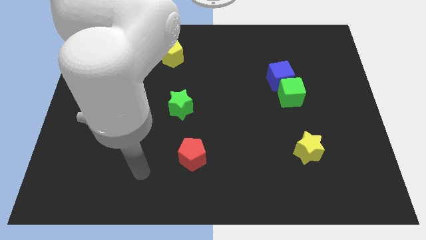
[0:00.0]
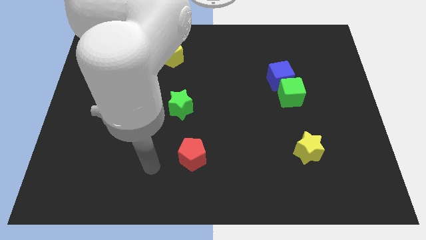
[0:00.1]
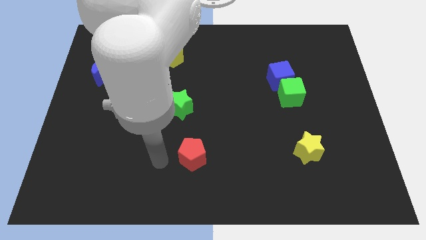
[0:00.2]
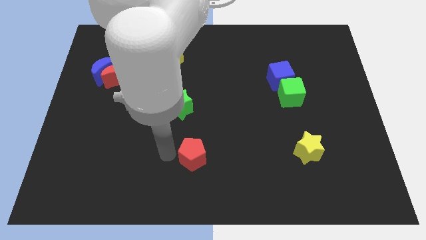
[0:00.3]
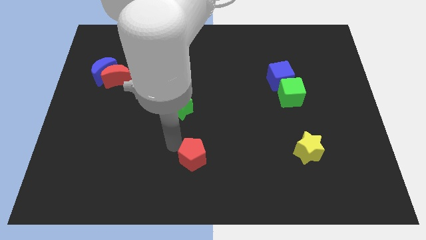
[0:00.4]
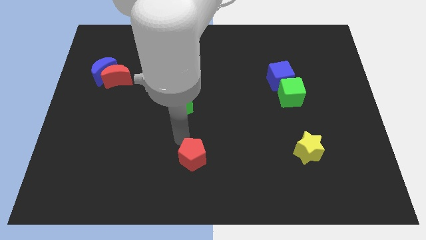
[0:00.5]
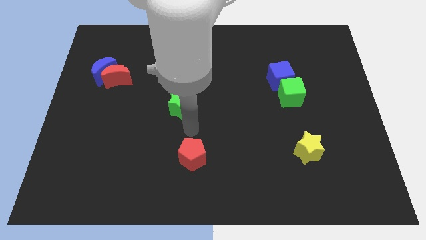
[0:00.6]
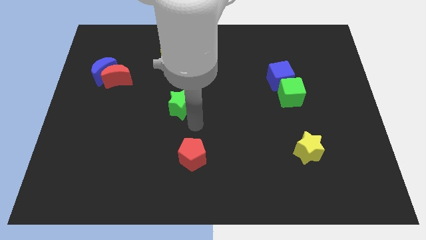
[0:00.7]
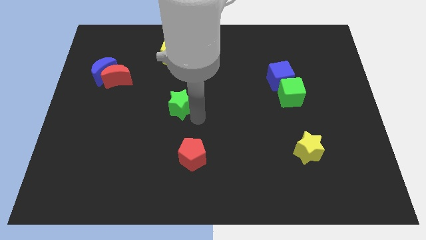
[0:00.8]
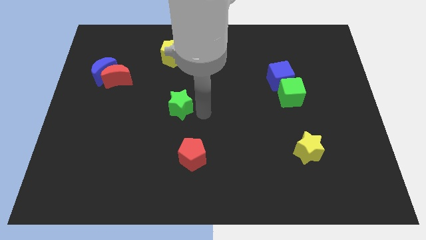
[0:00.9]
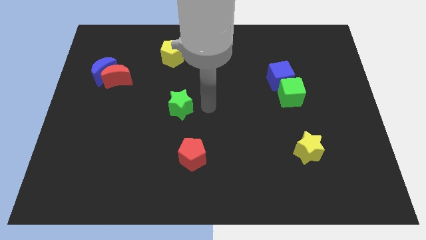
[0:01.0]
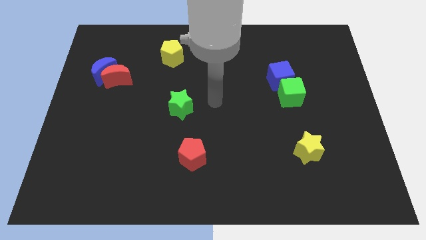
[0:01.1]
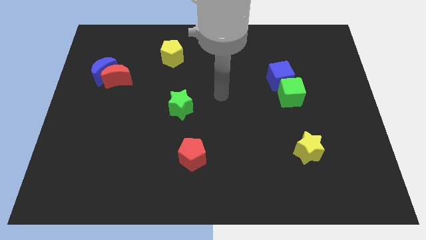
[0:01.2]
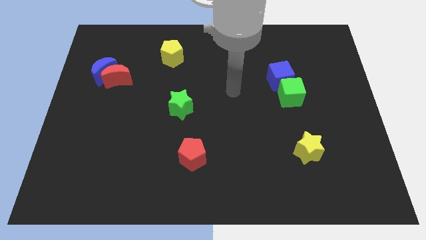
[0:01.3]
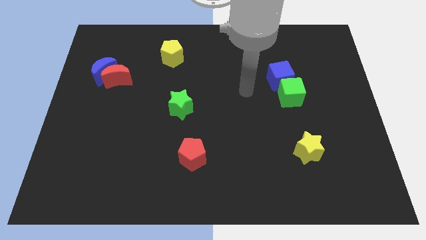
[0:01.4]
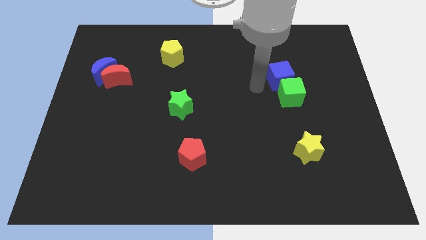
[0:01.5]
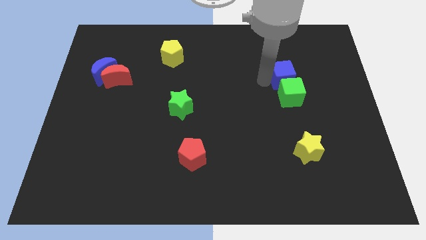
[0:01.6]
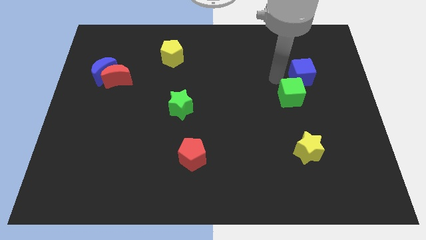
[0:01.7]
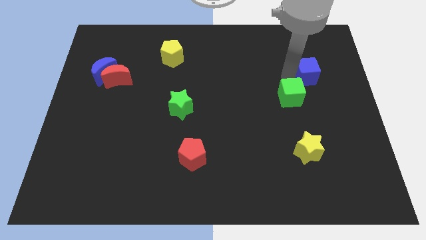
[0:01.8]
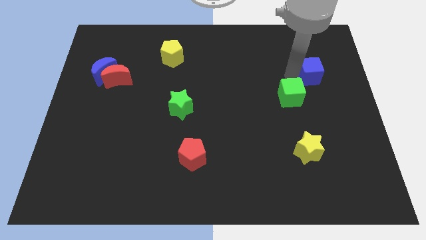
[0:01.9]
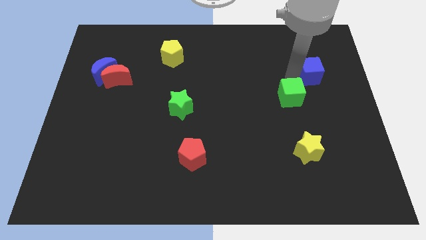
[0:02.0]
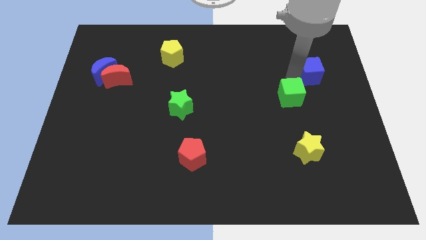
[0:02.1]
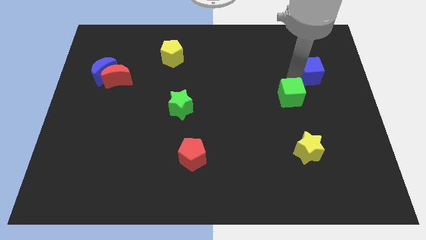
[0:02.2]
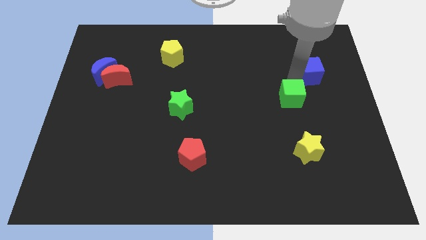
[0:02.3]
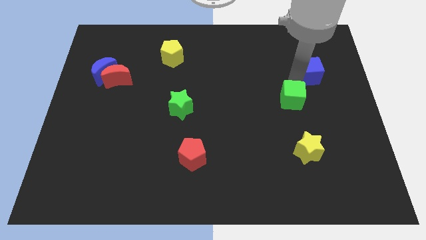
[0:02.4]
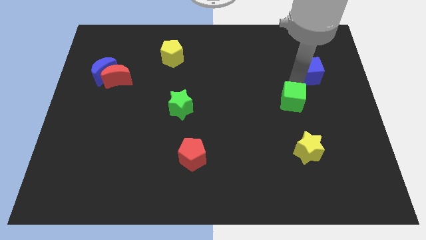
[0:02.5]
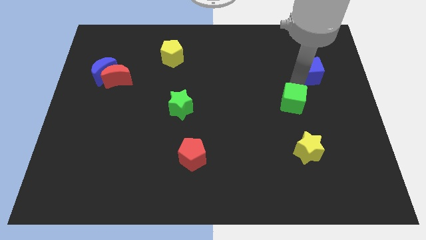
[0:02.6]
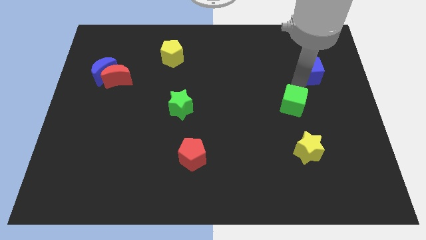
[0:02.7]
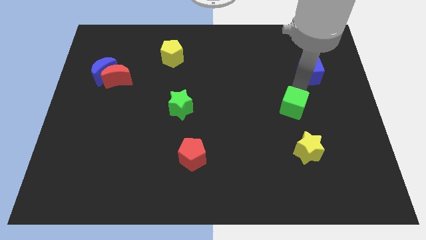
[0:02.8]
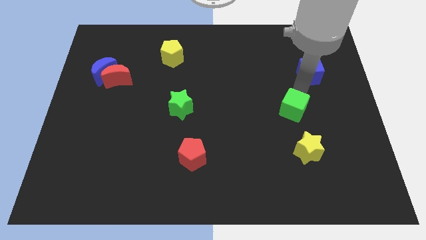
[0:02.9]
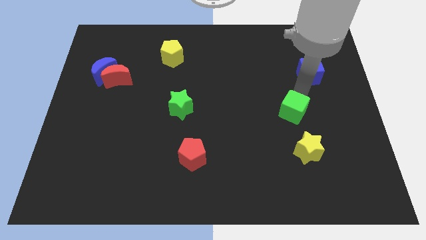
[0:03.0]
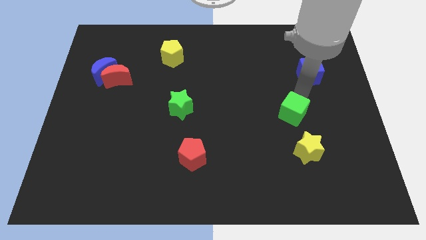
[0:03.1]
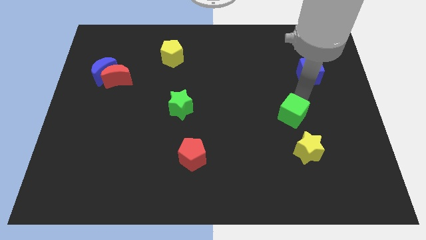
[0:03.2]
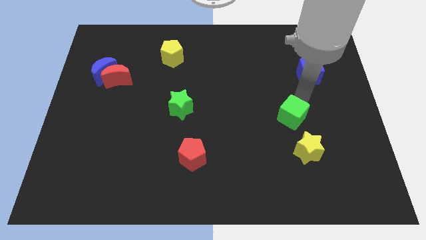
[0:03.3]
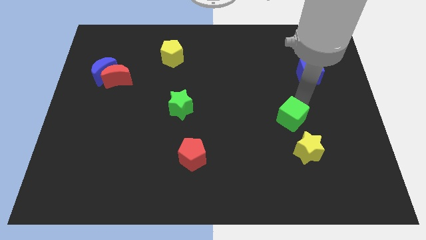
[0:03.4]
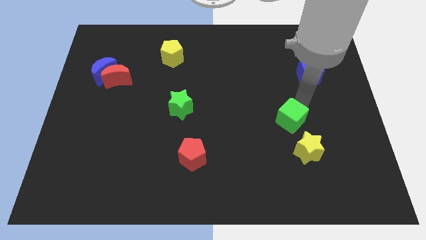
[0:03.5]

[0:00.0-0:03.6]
push the green cube a little bit downwards

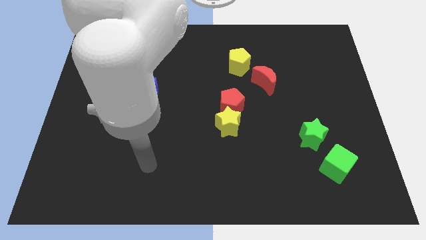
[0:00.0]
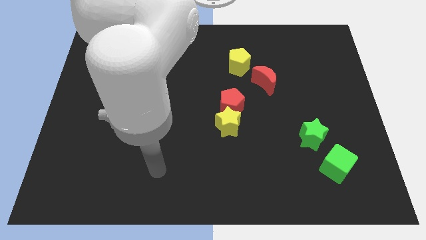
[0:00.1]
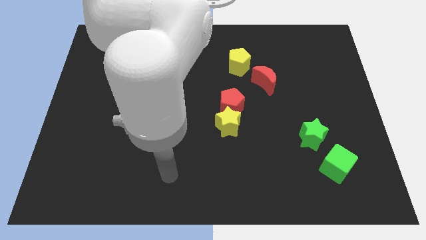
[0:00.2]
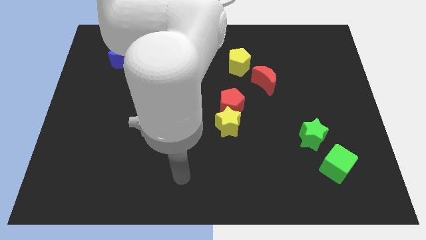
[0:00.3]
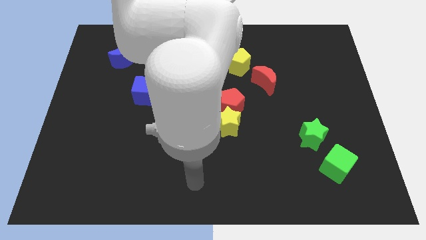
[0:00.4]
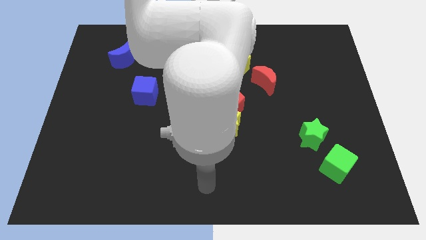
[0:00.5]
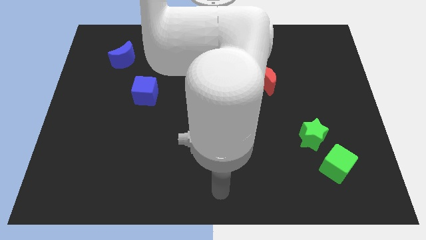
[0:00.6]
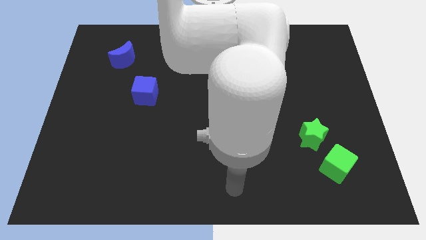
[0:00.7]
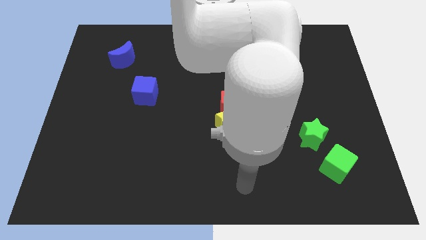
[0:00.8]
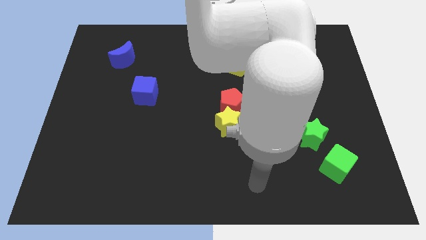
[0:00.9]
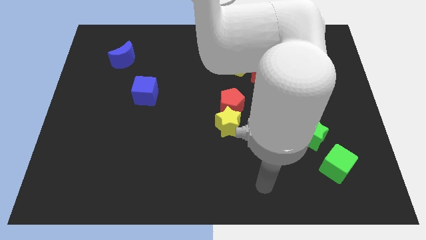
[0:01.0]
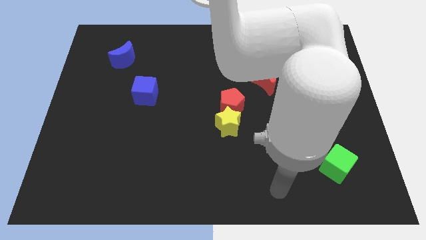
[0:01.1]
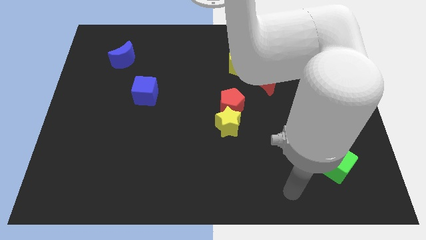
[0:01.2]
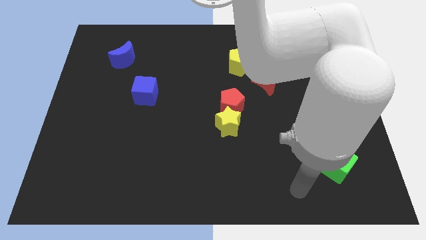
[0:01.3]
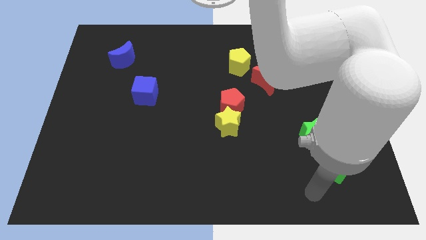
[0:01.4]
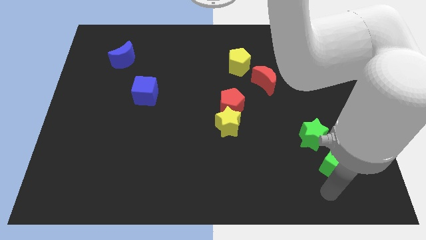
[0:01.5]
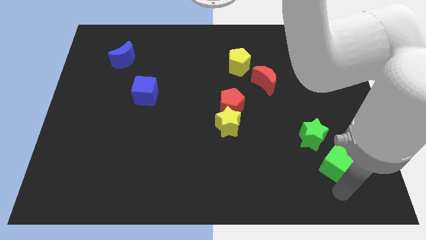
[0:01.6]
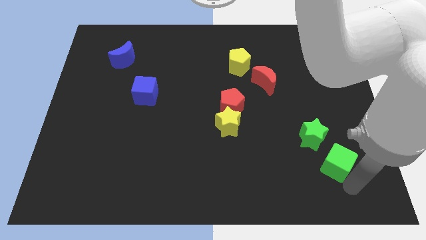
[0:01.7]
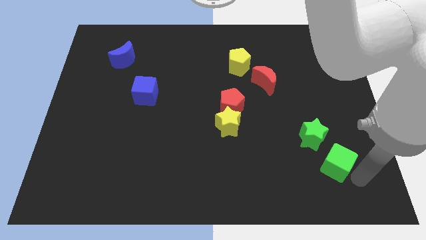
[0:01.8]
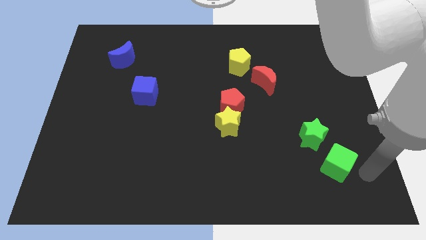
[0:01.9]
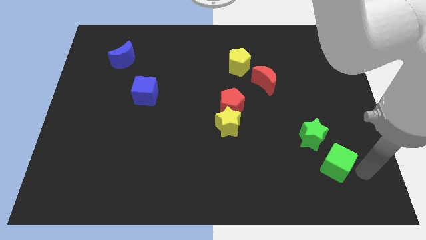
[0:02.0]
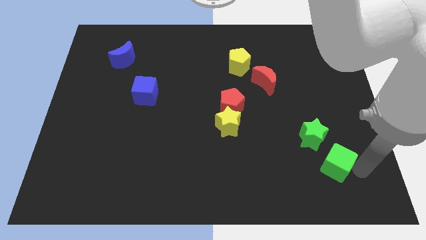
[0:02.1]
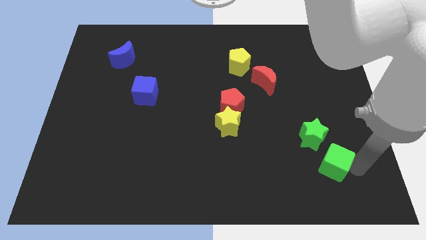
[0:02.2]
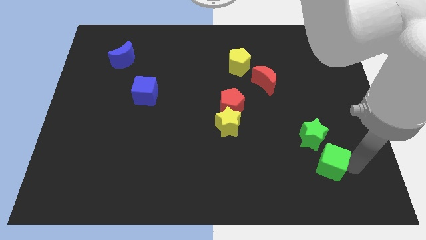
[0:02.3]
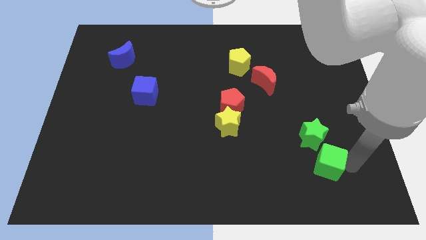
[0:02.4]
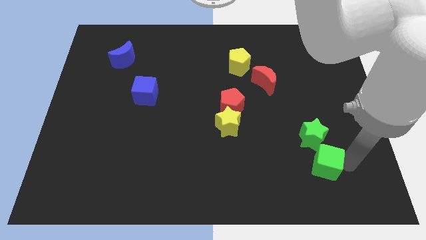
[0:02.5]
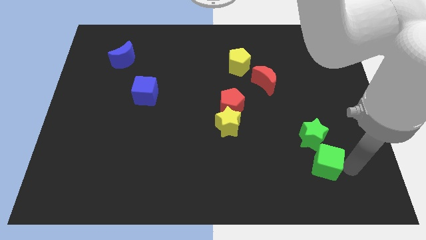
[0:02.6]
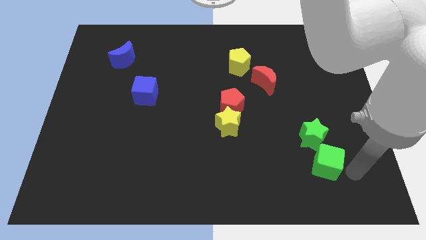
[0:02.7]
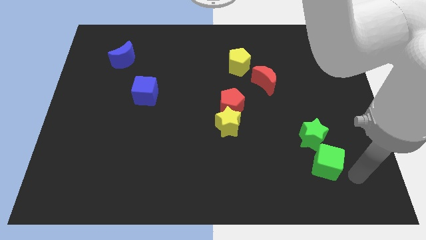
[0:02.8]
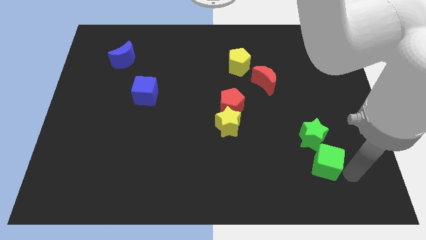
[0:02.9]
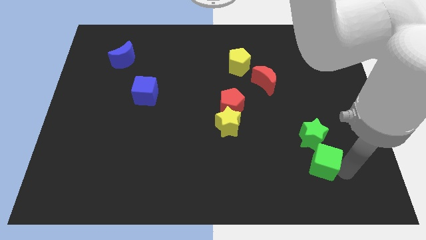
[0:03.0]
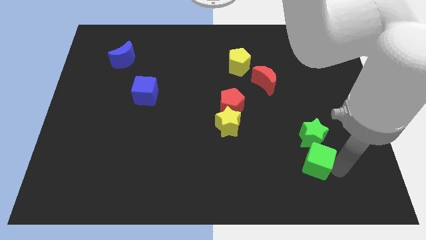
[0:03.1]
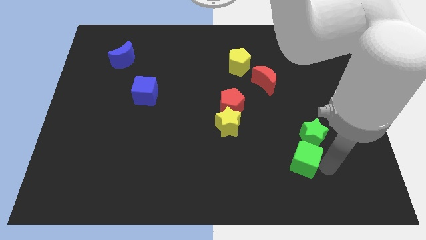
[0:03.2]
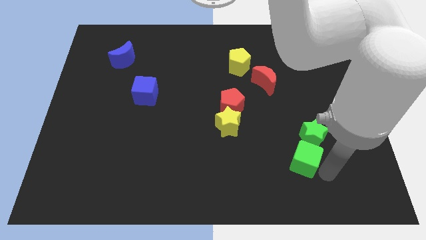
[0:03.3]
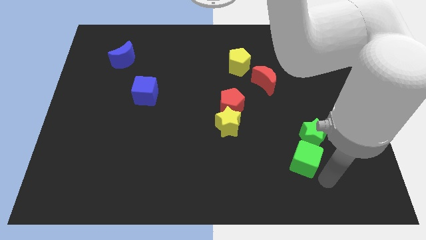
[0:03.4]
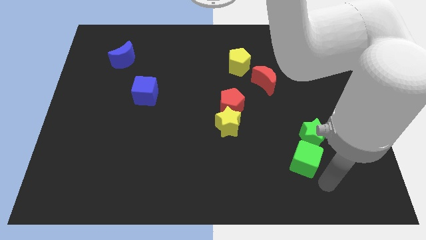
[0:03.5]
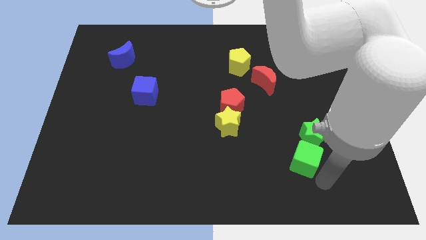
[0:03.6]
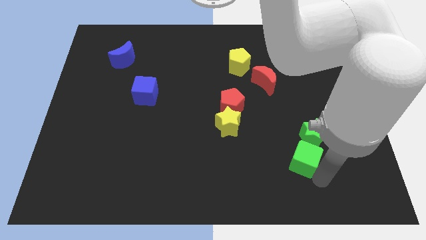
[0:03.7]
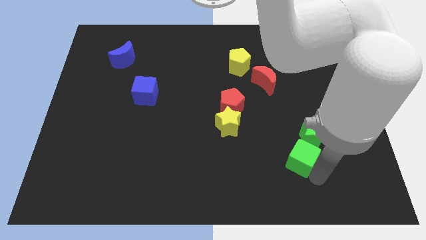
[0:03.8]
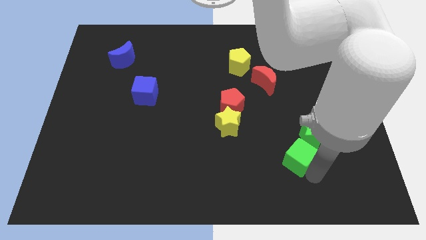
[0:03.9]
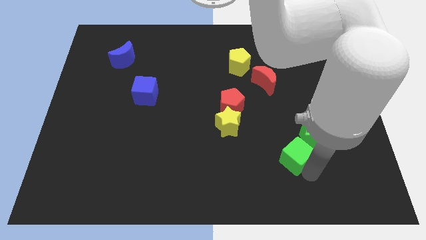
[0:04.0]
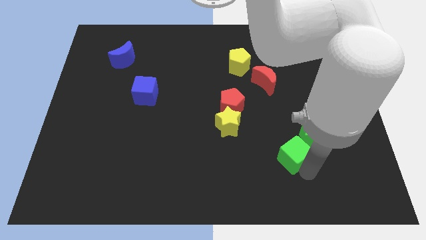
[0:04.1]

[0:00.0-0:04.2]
slide the green cube upwards and to the left diagonally somewhat

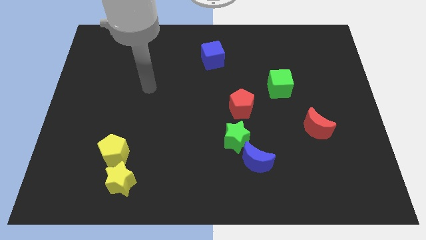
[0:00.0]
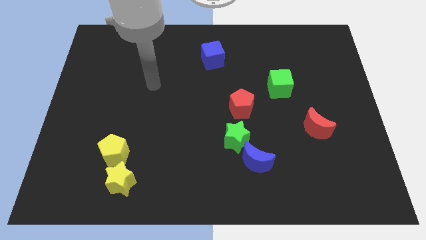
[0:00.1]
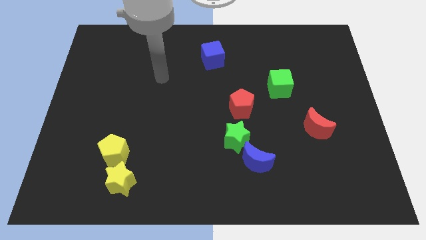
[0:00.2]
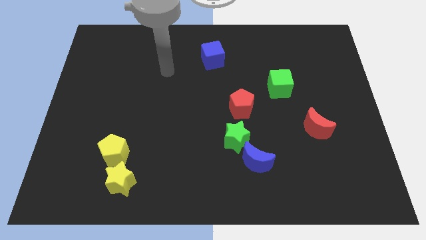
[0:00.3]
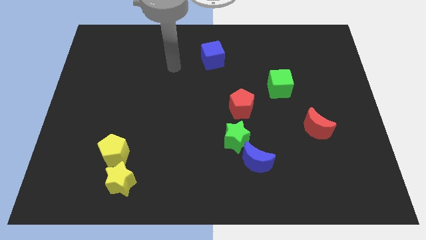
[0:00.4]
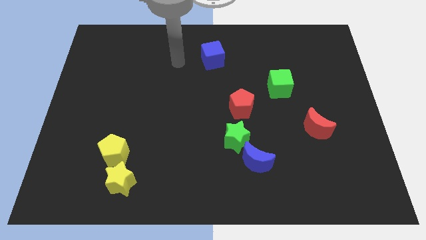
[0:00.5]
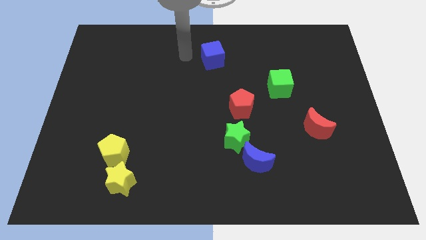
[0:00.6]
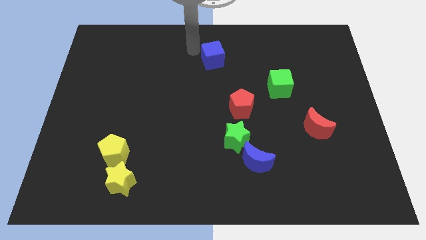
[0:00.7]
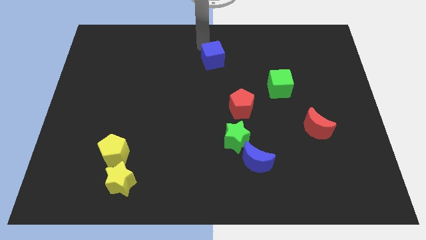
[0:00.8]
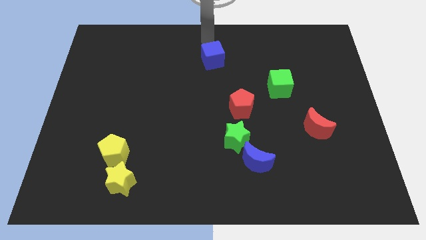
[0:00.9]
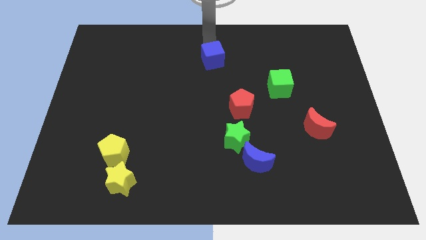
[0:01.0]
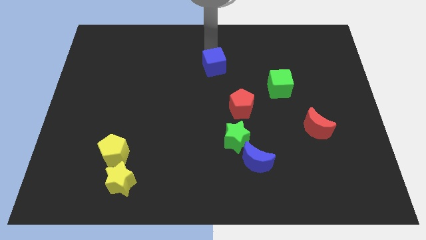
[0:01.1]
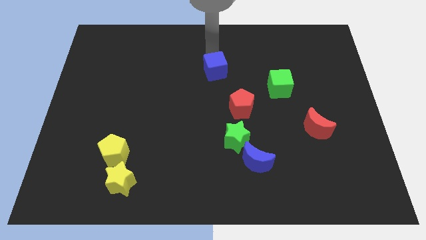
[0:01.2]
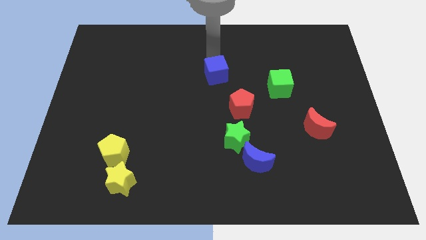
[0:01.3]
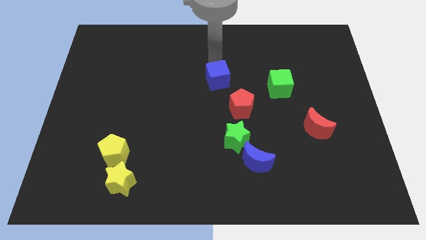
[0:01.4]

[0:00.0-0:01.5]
move the blue cube downwards slightly
